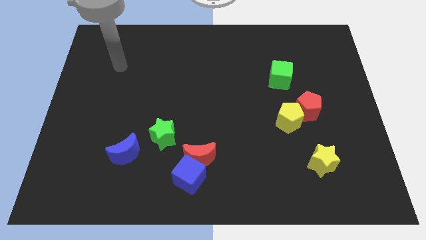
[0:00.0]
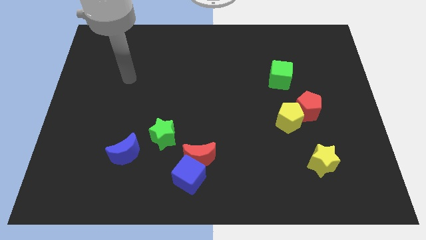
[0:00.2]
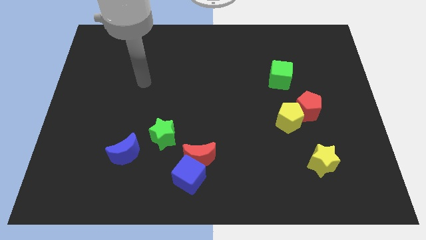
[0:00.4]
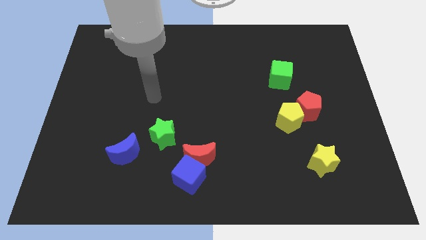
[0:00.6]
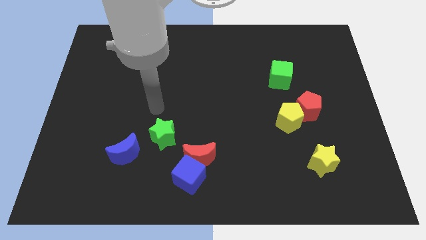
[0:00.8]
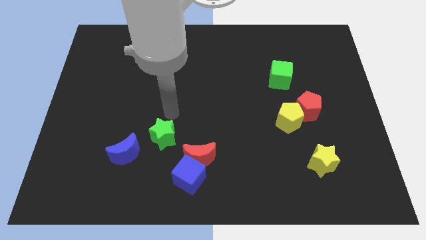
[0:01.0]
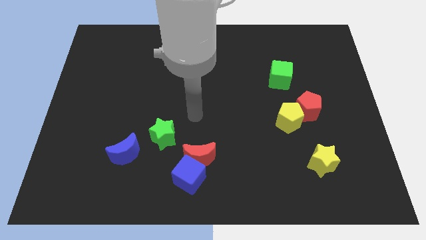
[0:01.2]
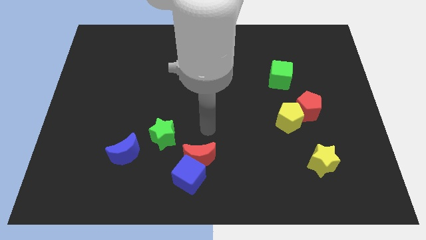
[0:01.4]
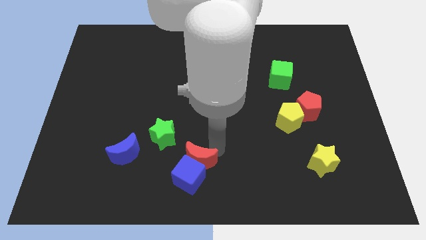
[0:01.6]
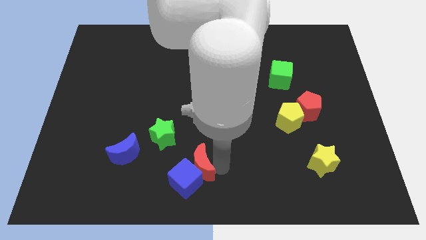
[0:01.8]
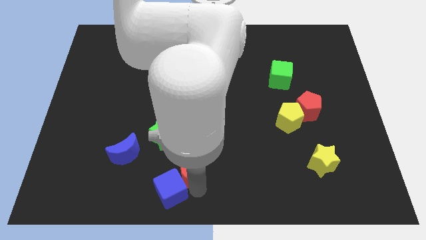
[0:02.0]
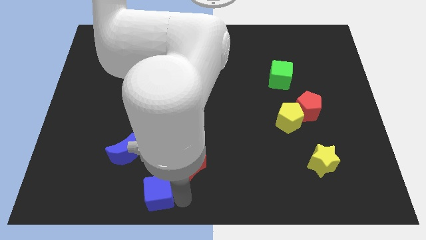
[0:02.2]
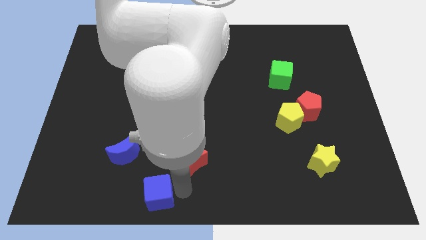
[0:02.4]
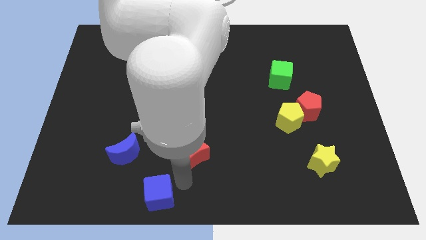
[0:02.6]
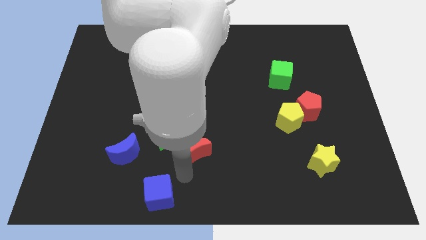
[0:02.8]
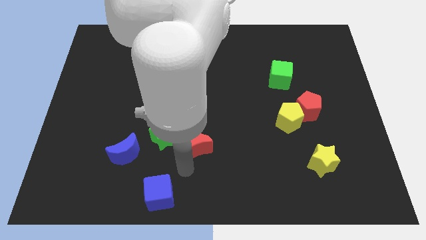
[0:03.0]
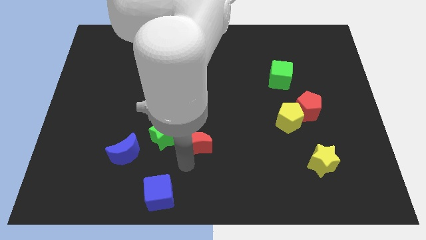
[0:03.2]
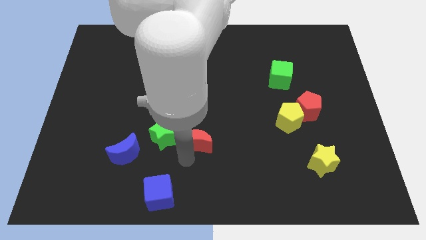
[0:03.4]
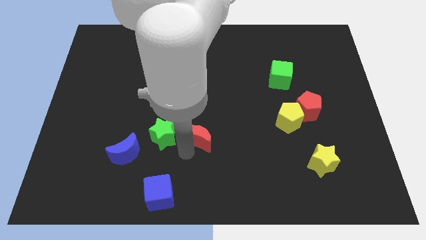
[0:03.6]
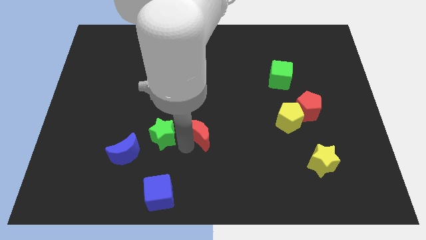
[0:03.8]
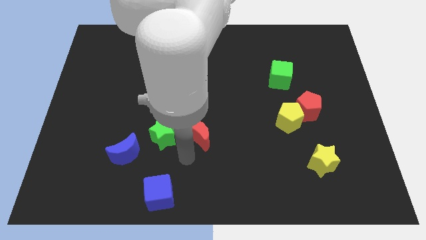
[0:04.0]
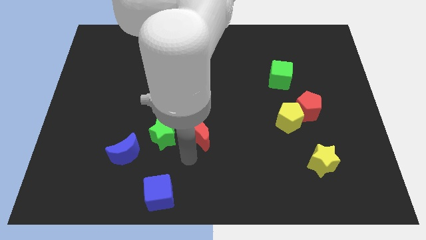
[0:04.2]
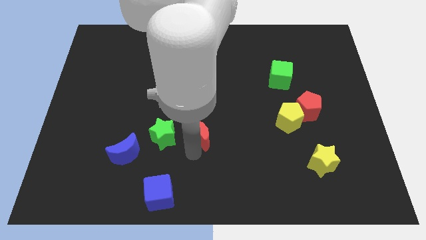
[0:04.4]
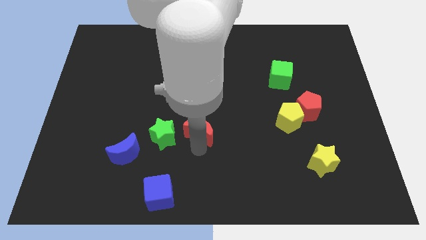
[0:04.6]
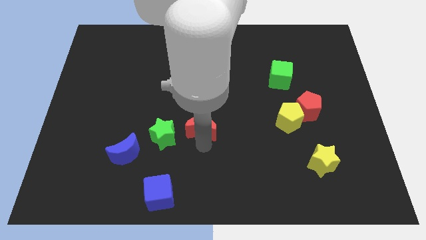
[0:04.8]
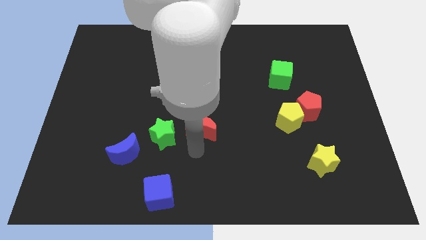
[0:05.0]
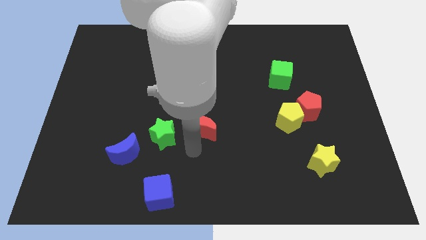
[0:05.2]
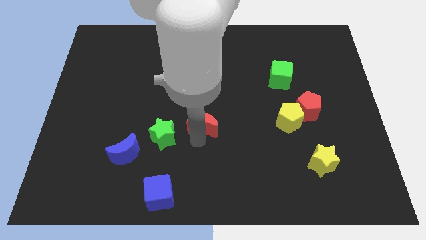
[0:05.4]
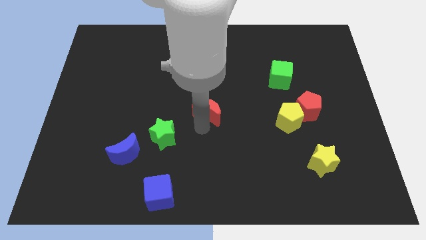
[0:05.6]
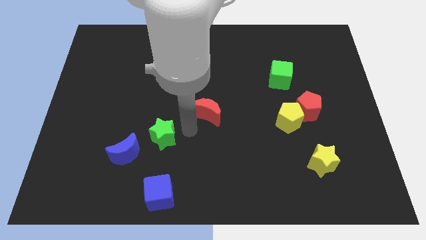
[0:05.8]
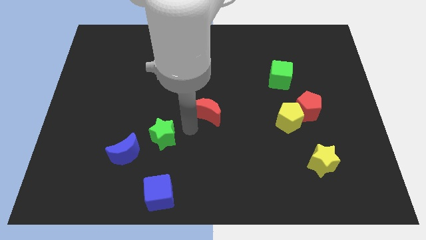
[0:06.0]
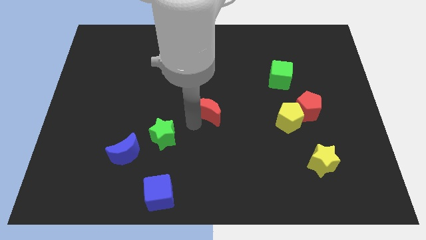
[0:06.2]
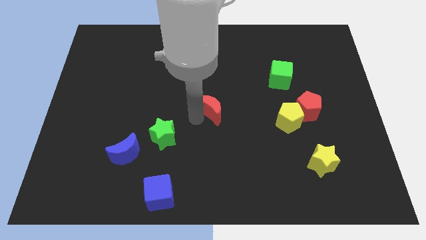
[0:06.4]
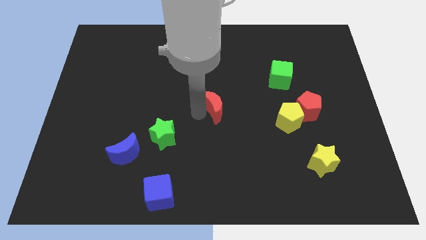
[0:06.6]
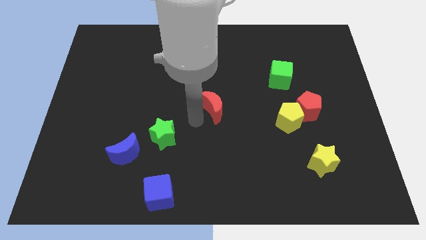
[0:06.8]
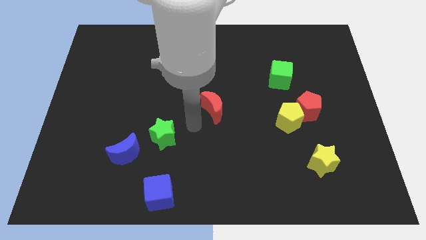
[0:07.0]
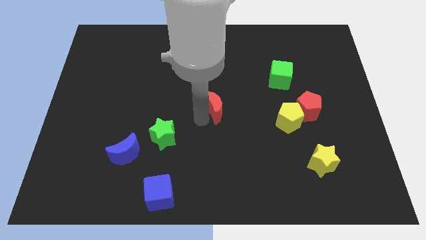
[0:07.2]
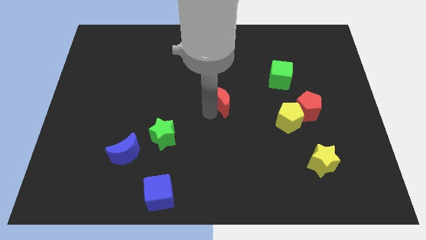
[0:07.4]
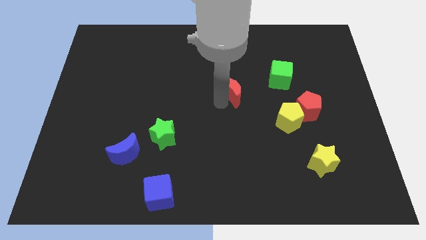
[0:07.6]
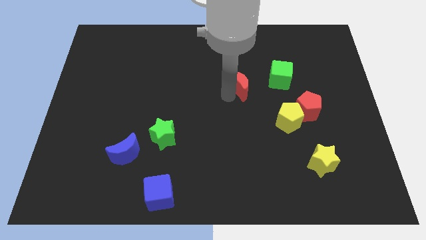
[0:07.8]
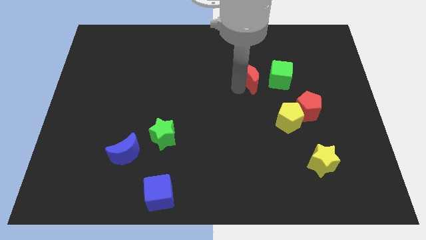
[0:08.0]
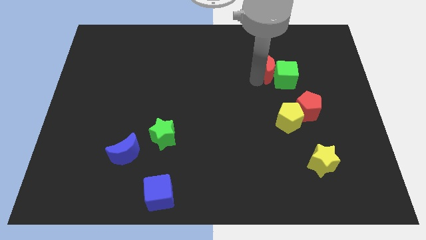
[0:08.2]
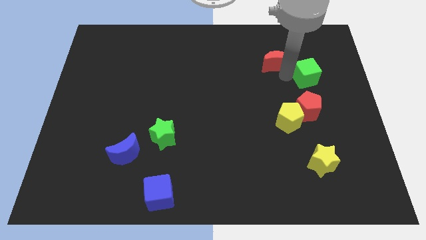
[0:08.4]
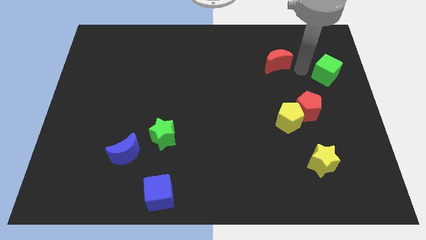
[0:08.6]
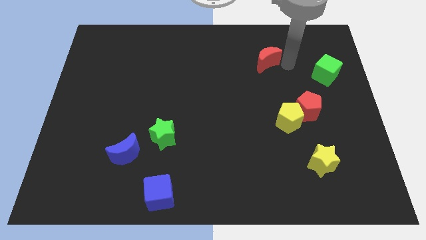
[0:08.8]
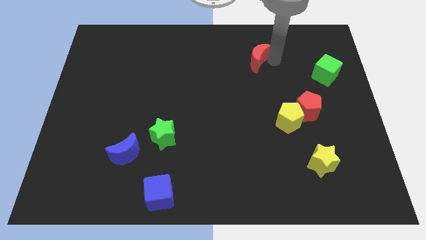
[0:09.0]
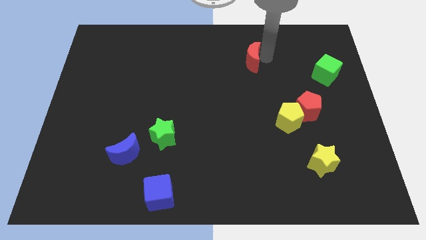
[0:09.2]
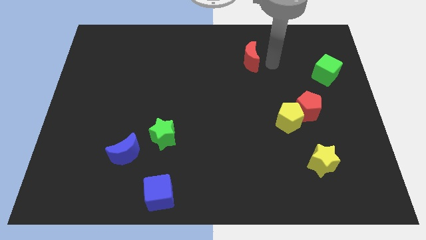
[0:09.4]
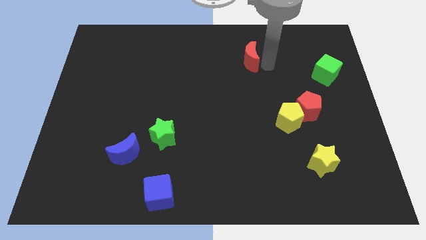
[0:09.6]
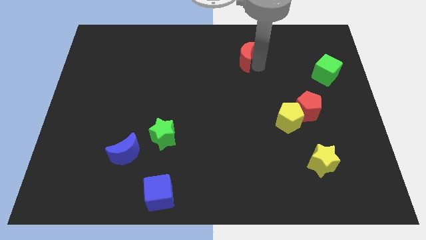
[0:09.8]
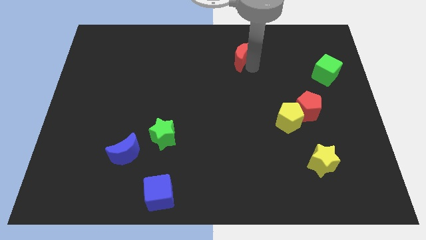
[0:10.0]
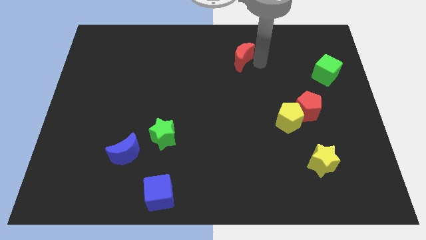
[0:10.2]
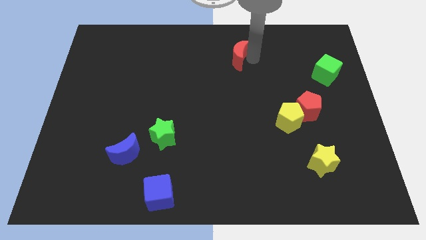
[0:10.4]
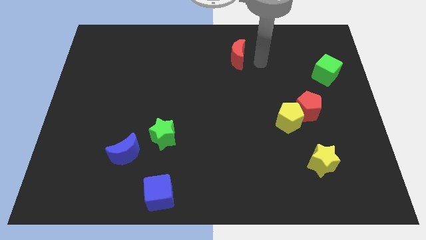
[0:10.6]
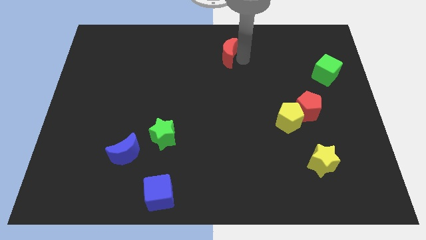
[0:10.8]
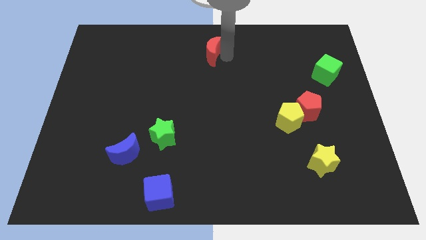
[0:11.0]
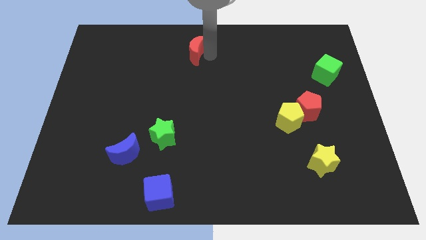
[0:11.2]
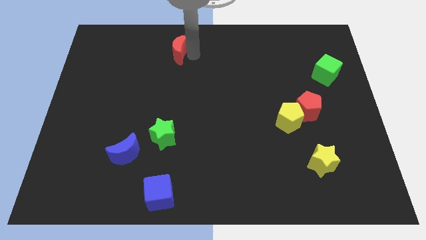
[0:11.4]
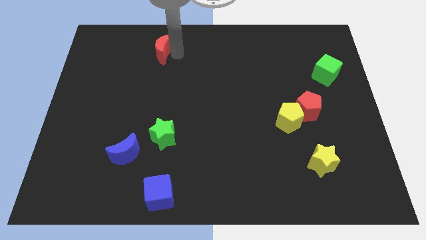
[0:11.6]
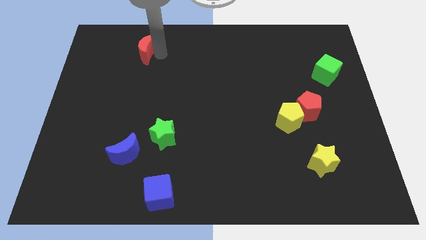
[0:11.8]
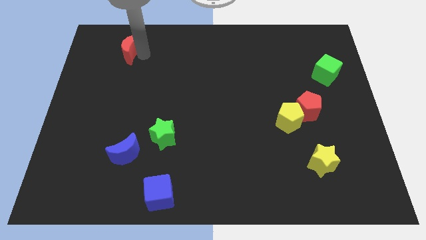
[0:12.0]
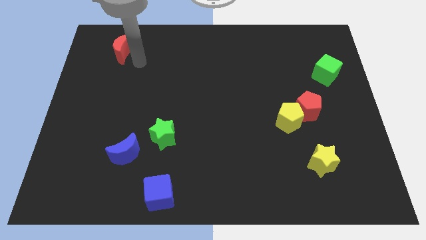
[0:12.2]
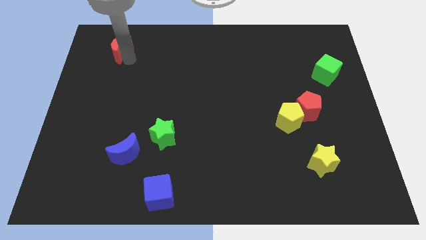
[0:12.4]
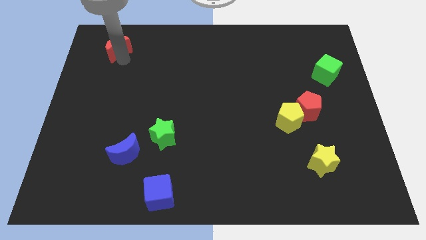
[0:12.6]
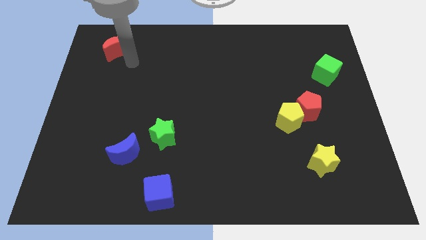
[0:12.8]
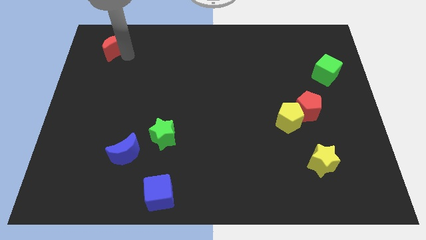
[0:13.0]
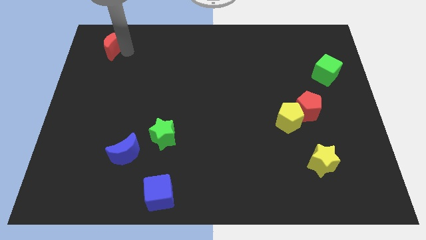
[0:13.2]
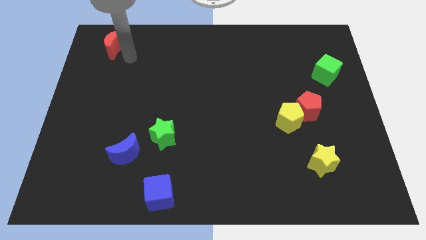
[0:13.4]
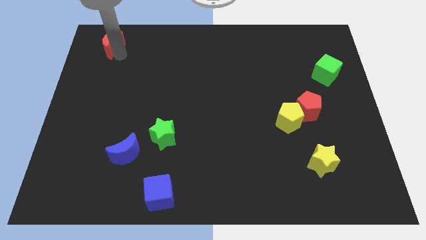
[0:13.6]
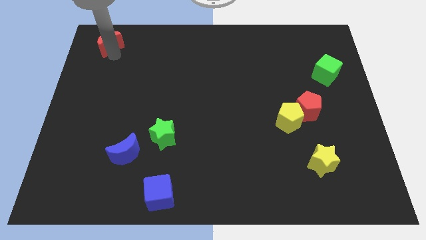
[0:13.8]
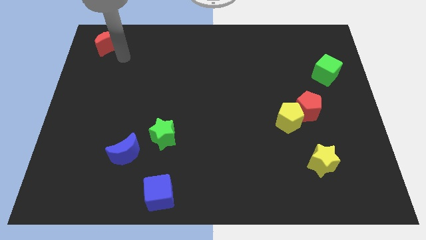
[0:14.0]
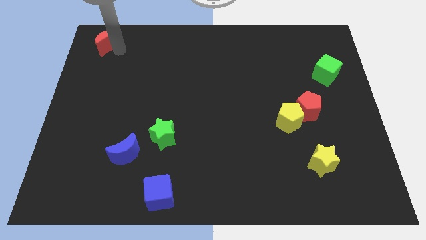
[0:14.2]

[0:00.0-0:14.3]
put the red moon to the top left corner
